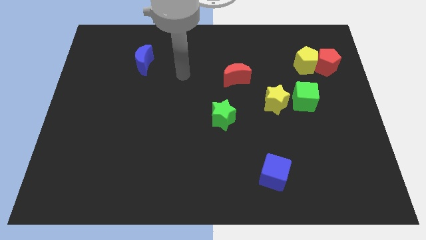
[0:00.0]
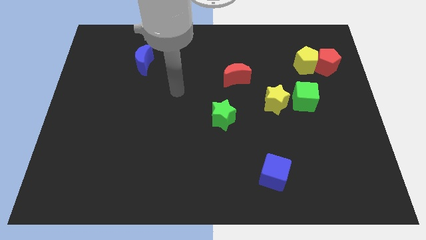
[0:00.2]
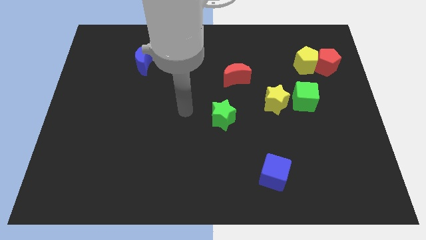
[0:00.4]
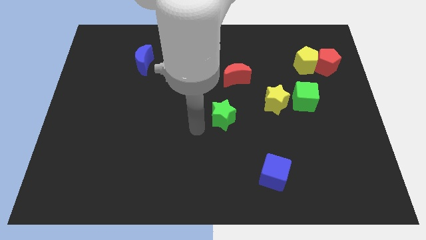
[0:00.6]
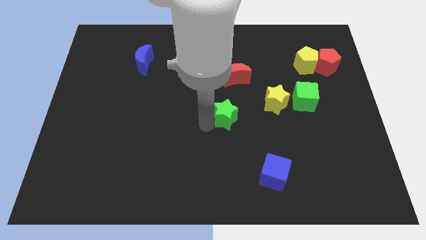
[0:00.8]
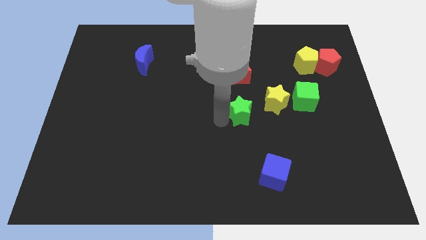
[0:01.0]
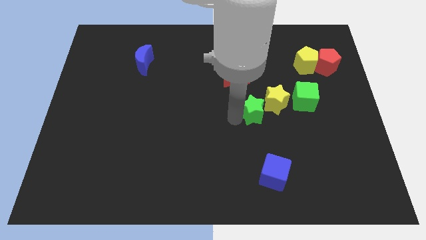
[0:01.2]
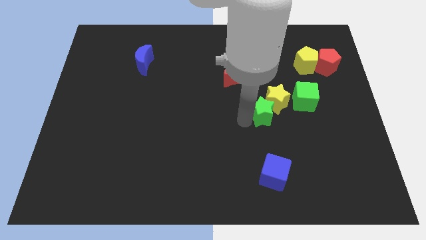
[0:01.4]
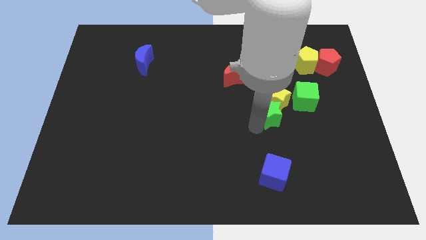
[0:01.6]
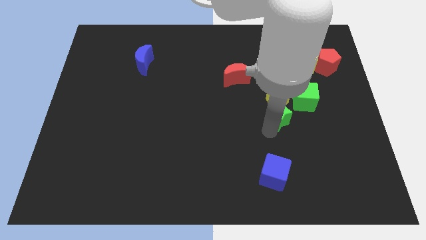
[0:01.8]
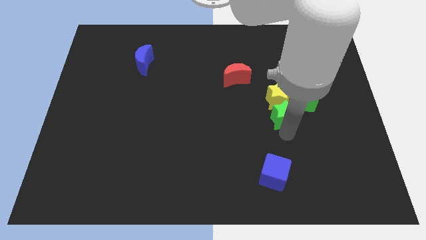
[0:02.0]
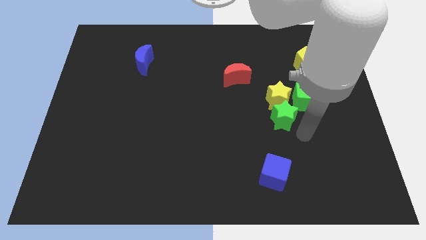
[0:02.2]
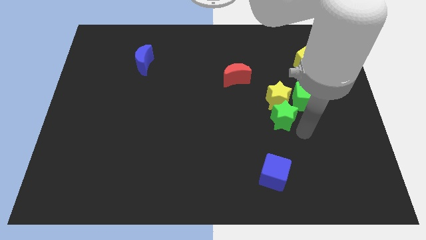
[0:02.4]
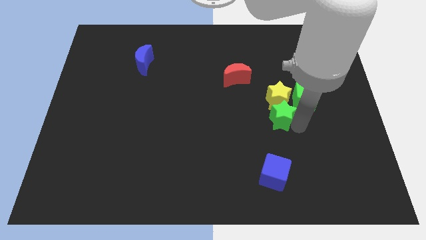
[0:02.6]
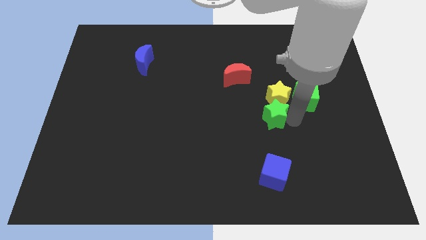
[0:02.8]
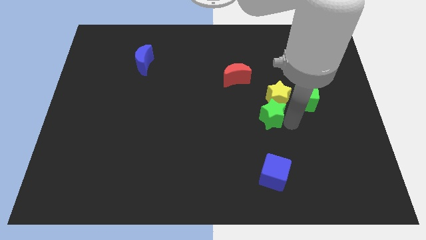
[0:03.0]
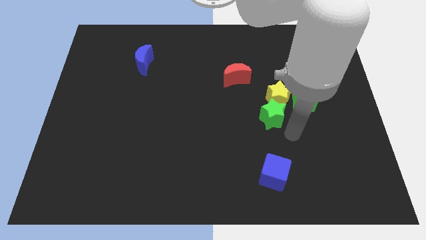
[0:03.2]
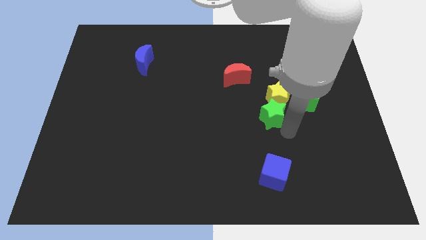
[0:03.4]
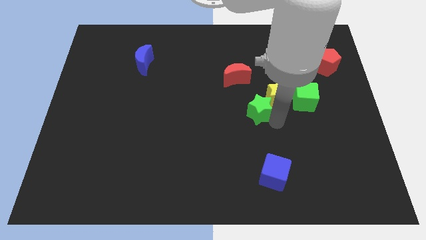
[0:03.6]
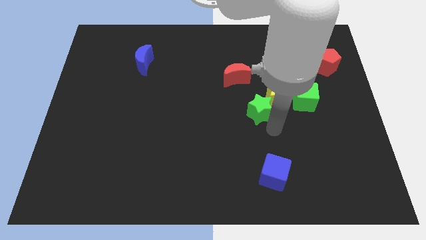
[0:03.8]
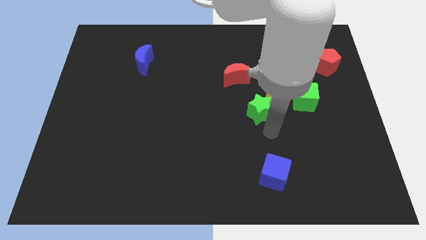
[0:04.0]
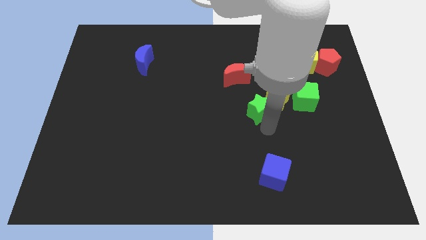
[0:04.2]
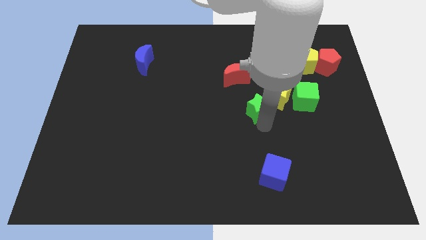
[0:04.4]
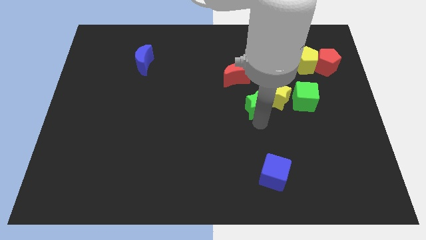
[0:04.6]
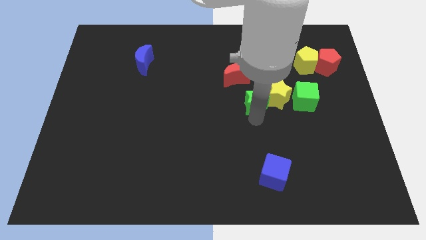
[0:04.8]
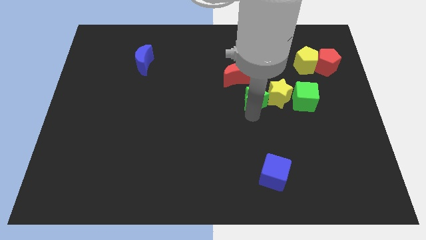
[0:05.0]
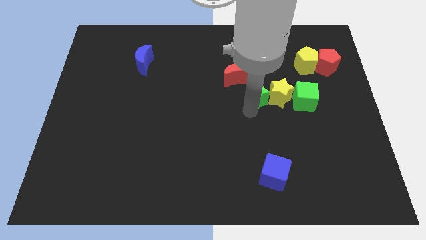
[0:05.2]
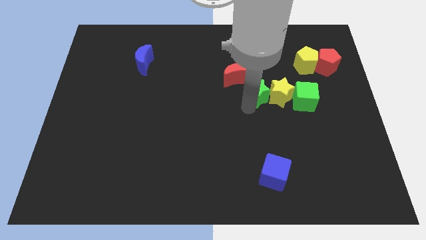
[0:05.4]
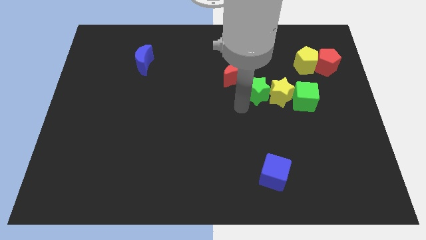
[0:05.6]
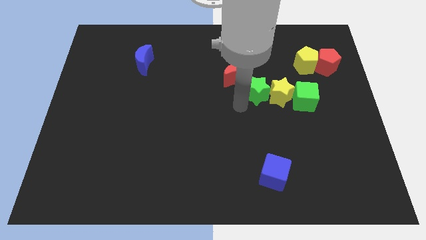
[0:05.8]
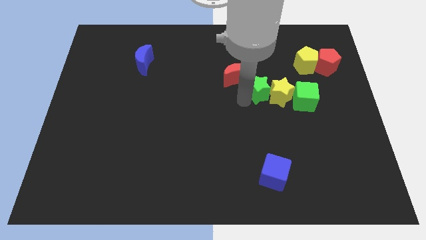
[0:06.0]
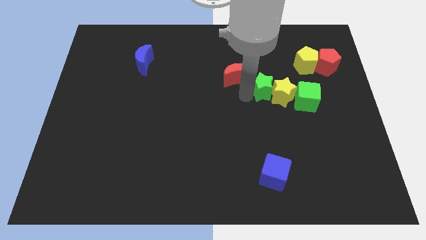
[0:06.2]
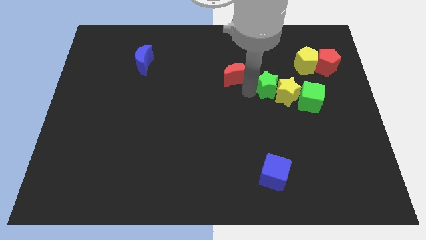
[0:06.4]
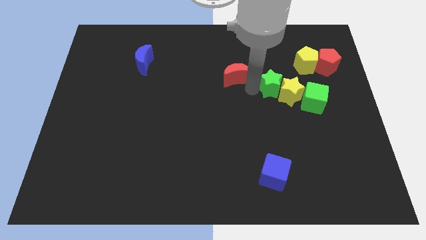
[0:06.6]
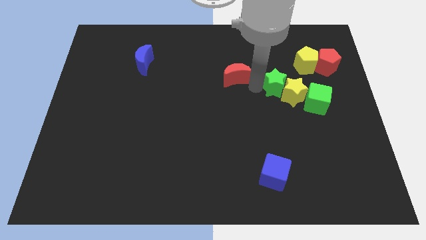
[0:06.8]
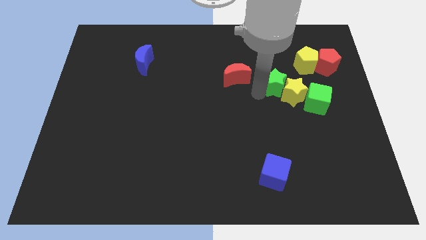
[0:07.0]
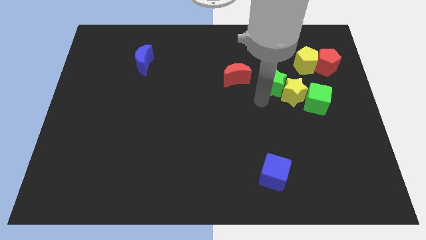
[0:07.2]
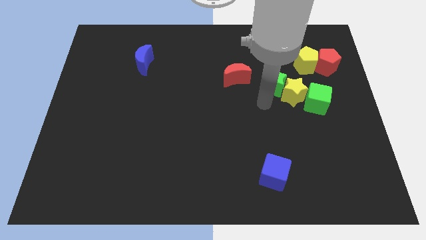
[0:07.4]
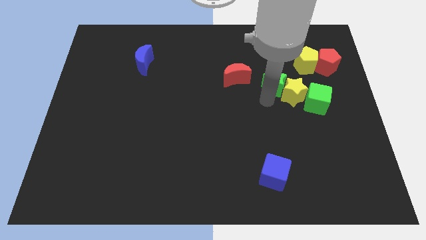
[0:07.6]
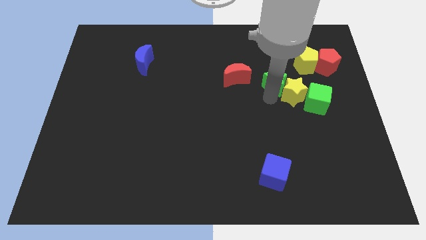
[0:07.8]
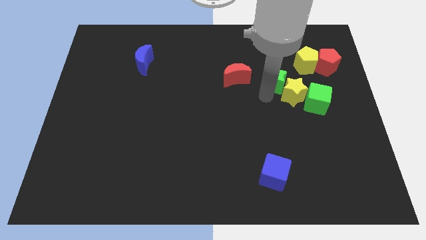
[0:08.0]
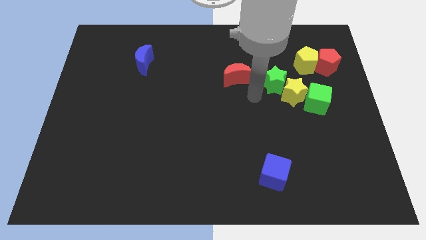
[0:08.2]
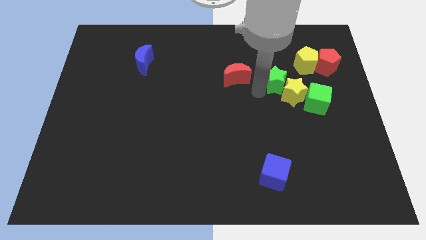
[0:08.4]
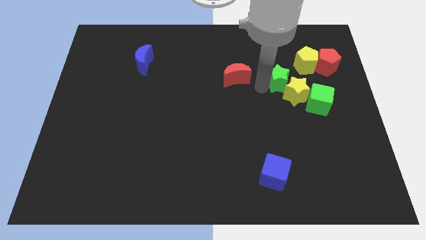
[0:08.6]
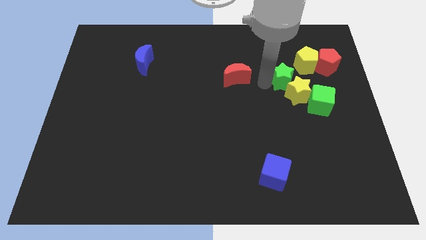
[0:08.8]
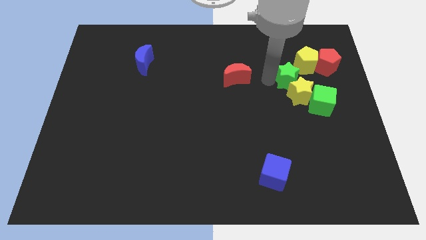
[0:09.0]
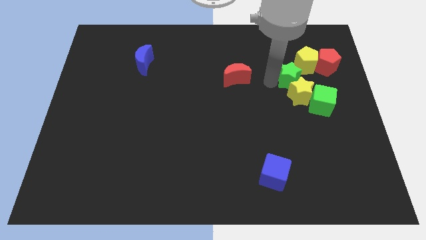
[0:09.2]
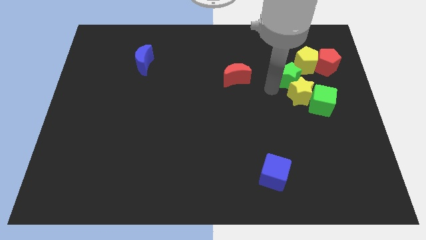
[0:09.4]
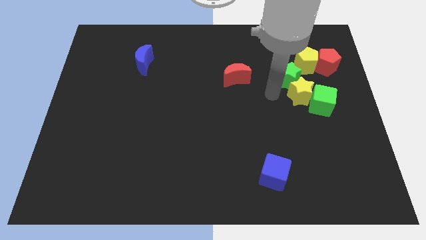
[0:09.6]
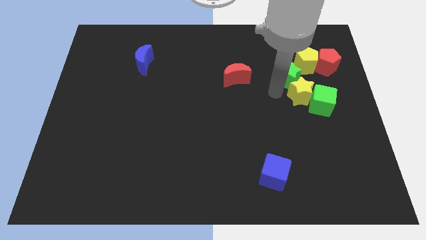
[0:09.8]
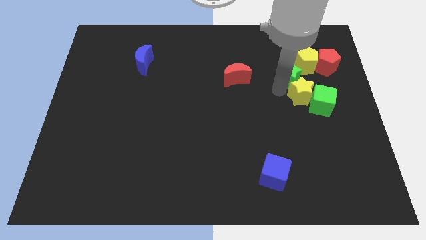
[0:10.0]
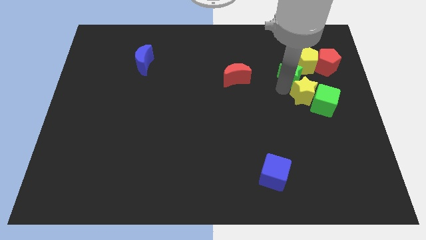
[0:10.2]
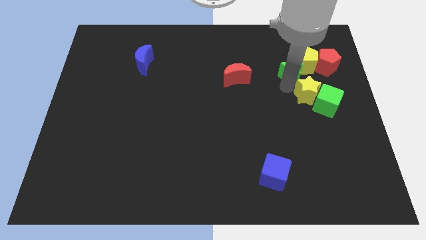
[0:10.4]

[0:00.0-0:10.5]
push the green star close to the yellow pentagon

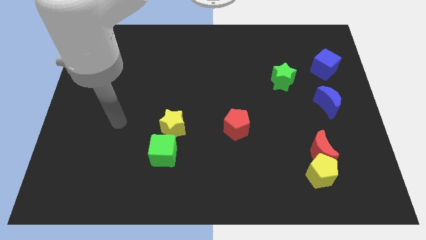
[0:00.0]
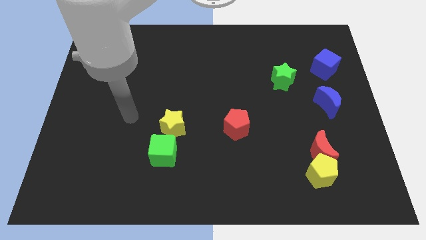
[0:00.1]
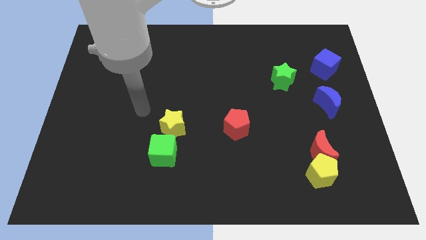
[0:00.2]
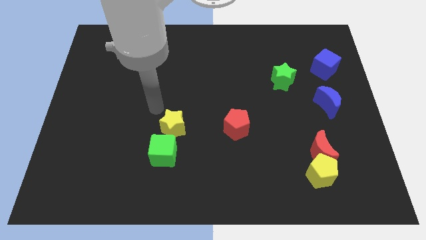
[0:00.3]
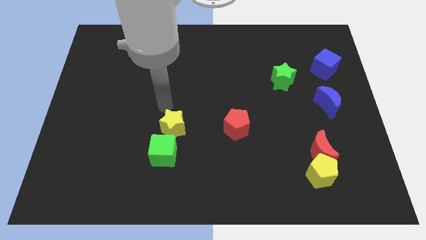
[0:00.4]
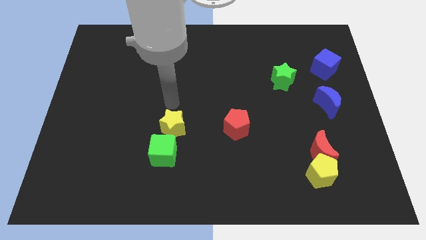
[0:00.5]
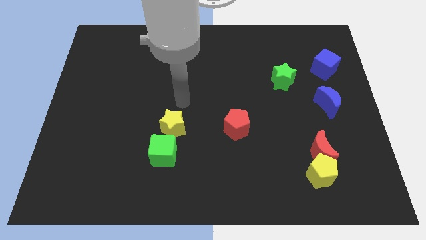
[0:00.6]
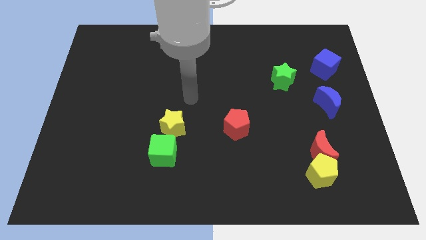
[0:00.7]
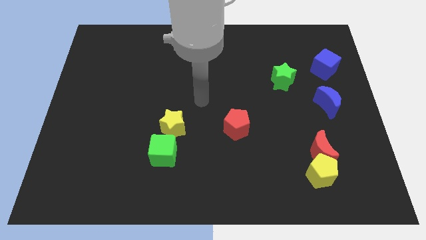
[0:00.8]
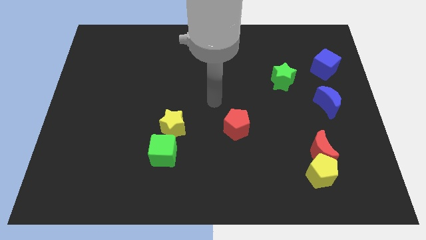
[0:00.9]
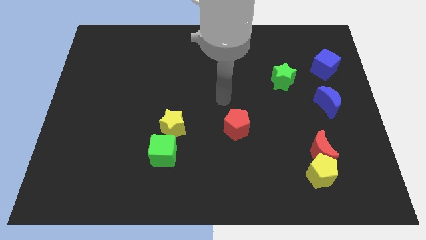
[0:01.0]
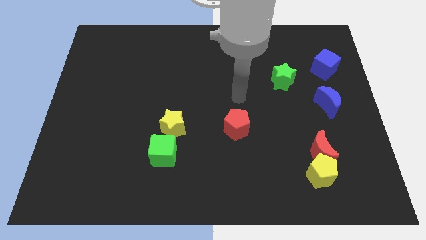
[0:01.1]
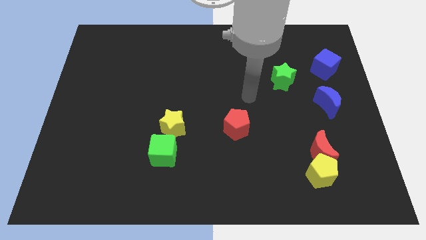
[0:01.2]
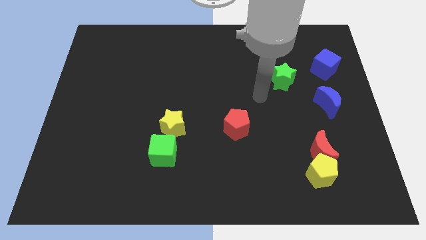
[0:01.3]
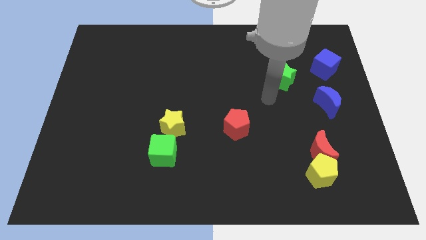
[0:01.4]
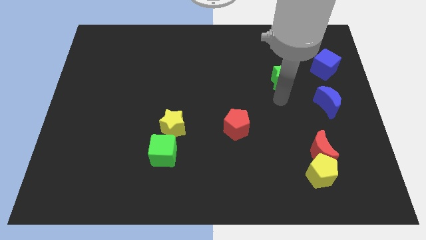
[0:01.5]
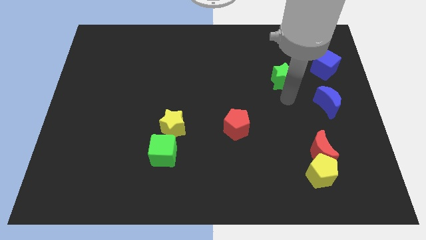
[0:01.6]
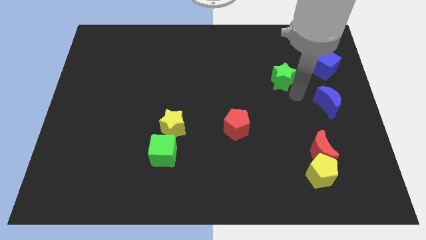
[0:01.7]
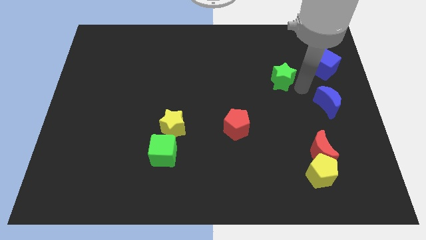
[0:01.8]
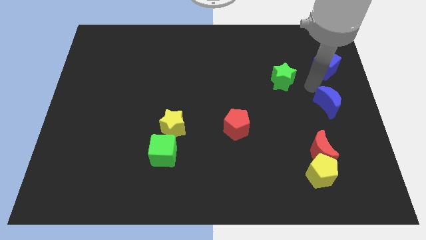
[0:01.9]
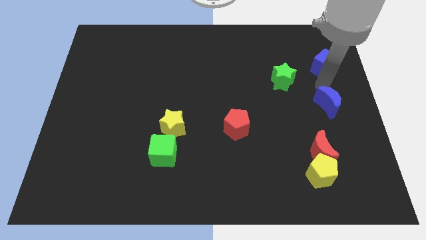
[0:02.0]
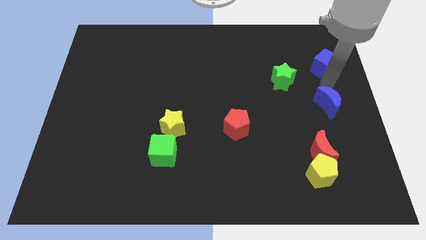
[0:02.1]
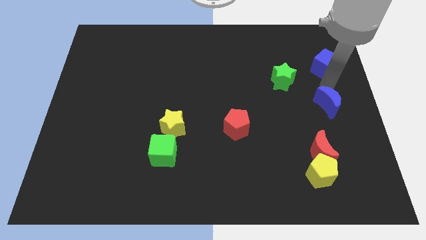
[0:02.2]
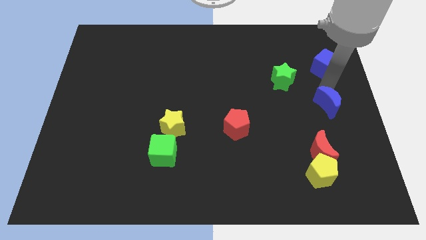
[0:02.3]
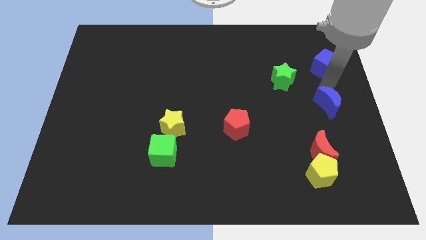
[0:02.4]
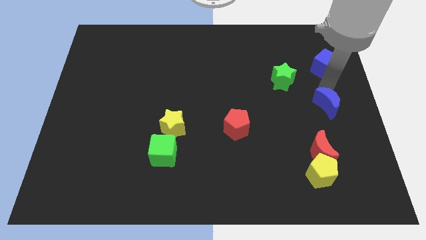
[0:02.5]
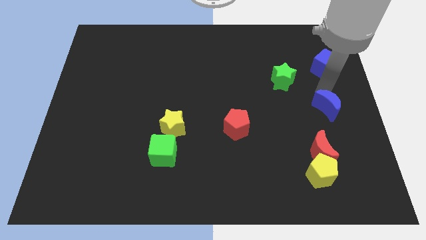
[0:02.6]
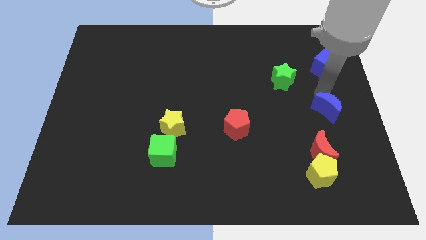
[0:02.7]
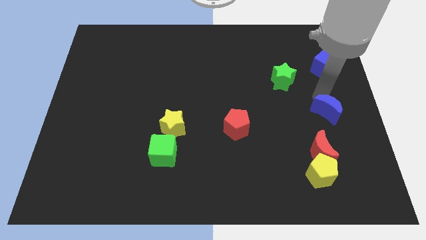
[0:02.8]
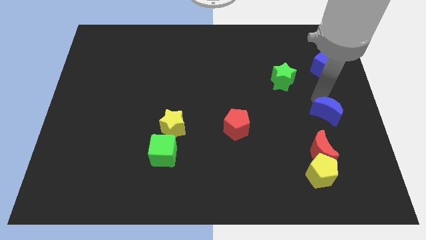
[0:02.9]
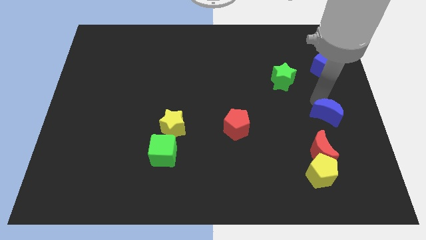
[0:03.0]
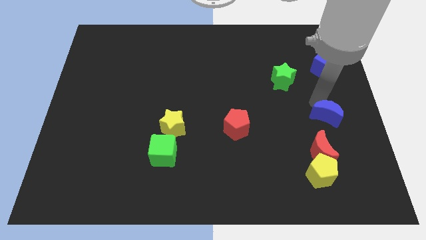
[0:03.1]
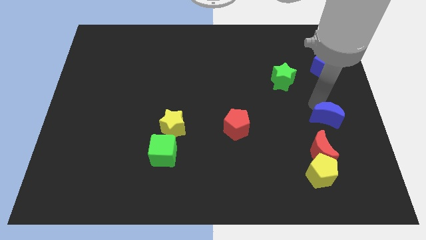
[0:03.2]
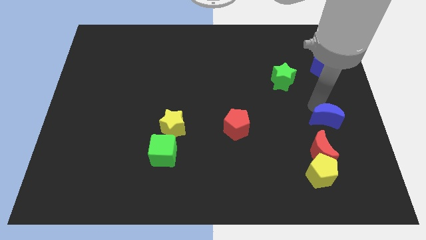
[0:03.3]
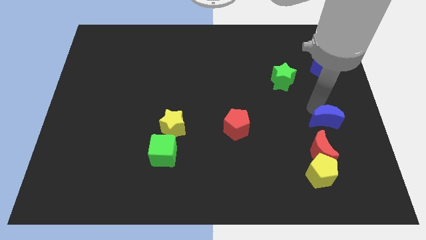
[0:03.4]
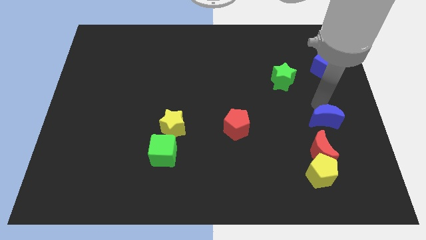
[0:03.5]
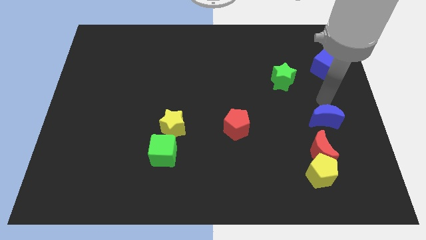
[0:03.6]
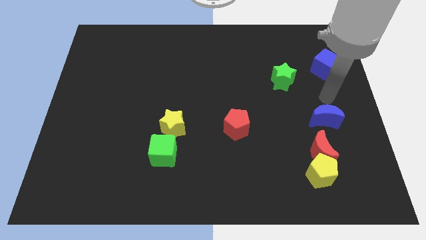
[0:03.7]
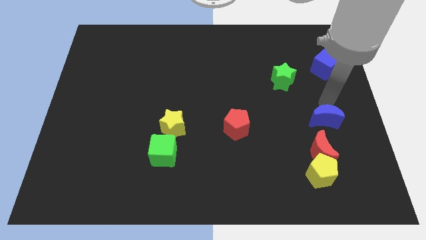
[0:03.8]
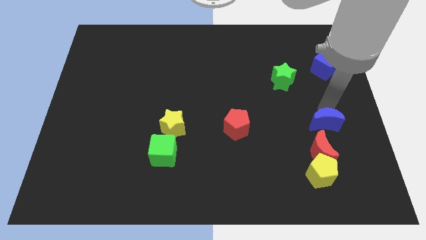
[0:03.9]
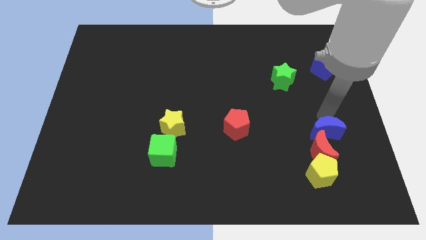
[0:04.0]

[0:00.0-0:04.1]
move the blue moon close to the red moon
